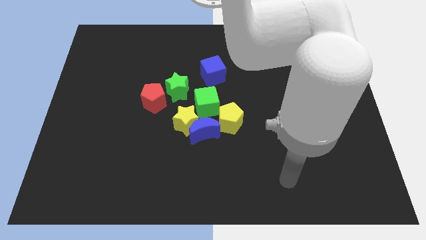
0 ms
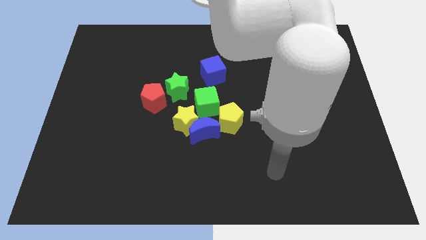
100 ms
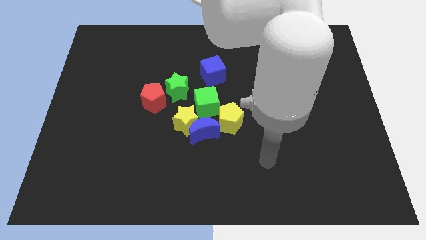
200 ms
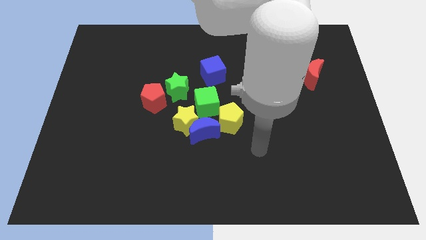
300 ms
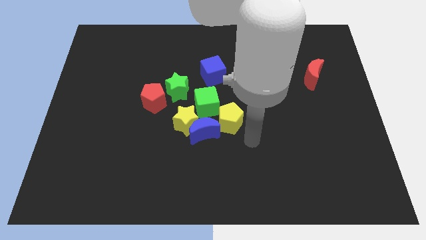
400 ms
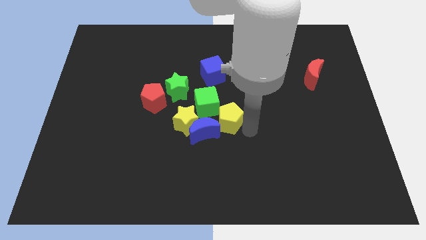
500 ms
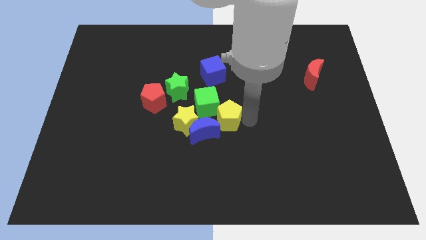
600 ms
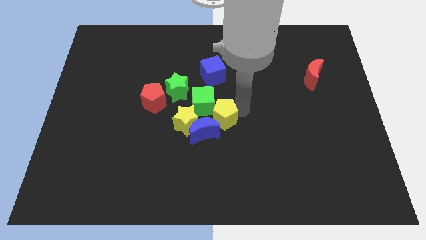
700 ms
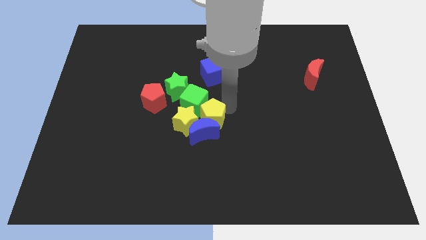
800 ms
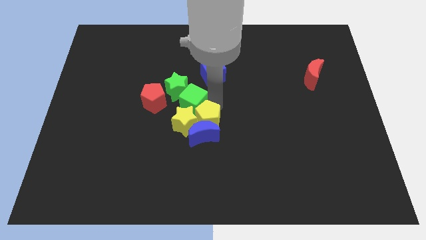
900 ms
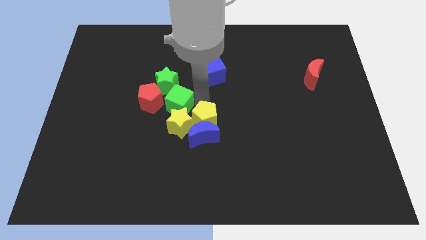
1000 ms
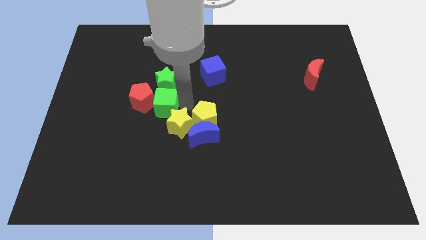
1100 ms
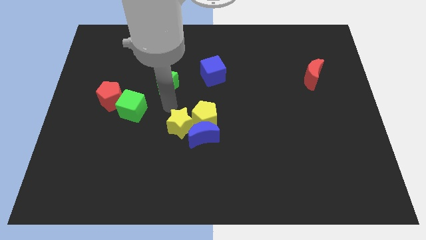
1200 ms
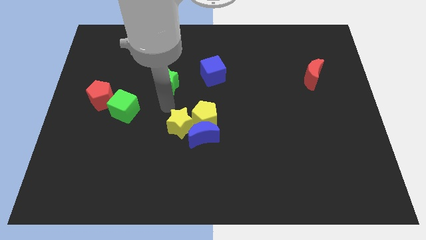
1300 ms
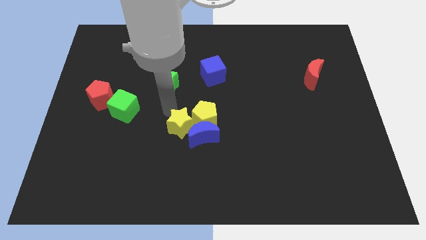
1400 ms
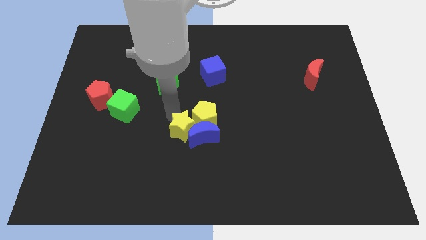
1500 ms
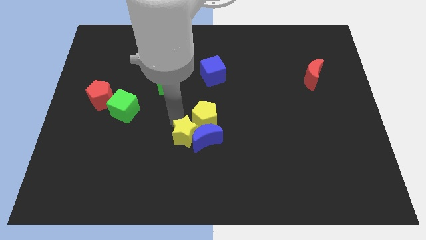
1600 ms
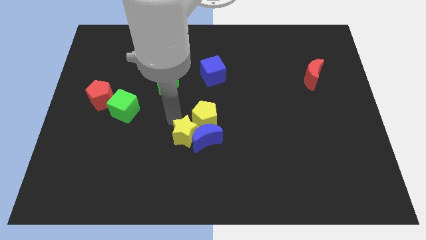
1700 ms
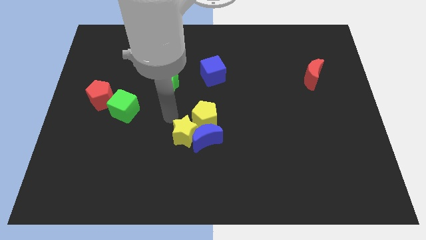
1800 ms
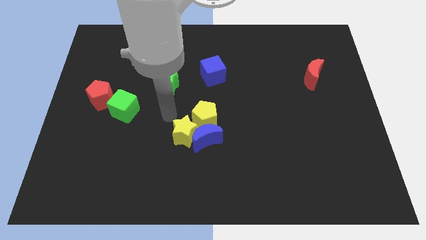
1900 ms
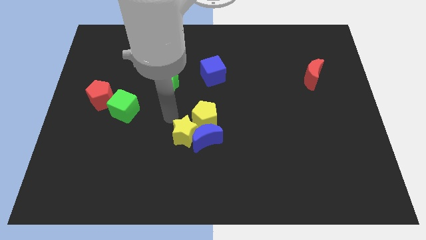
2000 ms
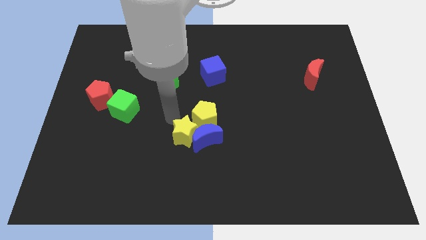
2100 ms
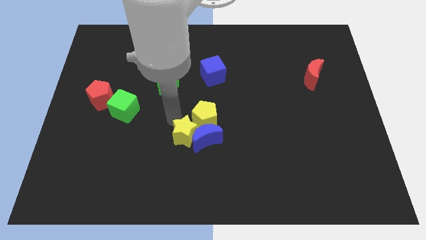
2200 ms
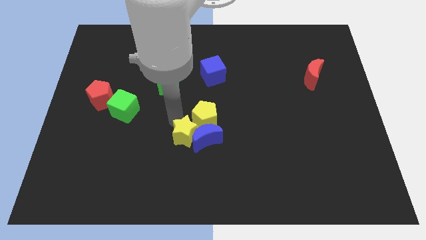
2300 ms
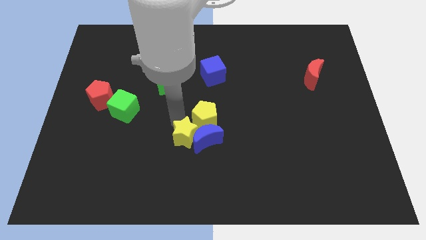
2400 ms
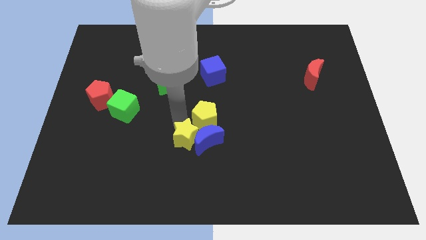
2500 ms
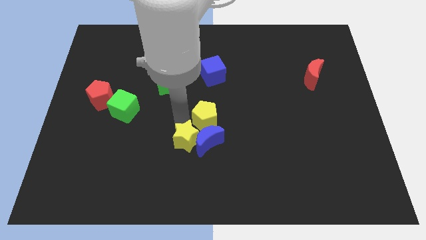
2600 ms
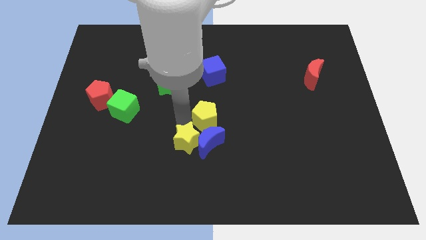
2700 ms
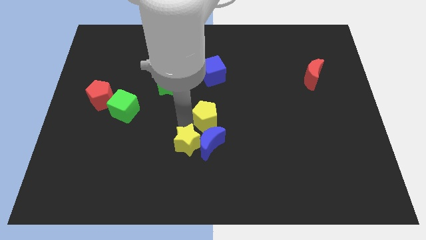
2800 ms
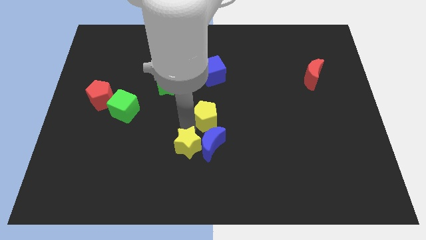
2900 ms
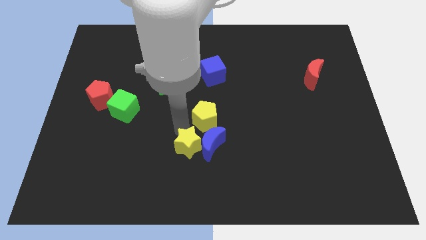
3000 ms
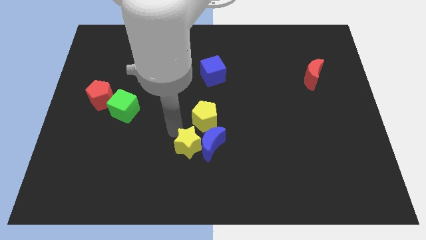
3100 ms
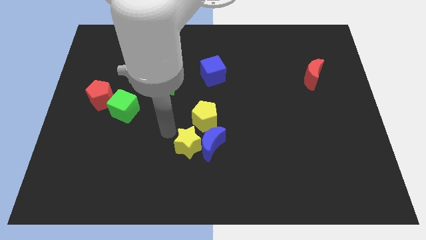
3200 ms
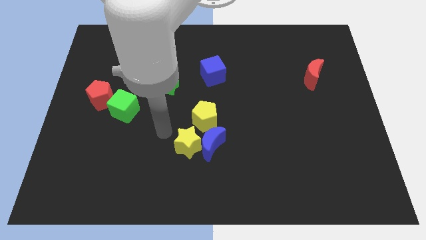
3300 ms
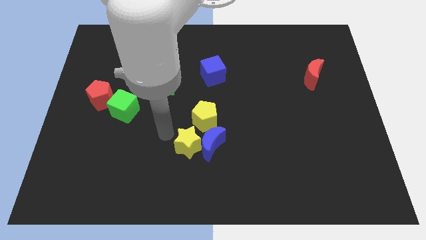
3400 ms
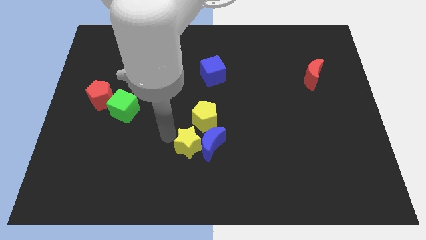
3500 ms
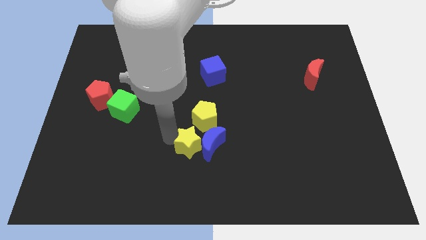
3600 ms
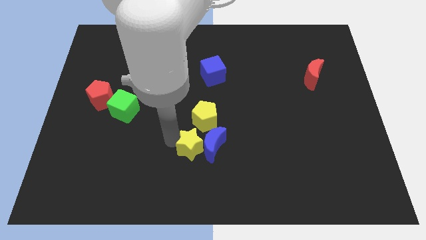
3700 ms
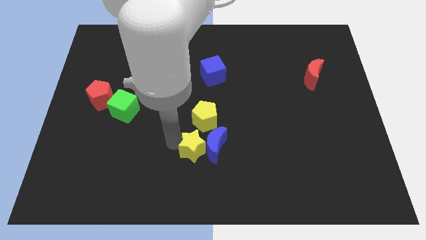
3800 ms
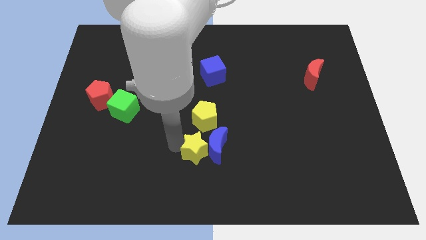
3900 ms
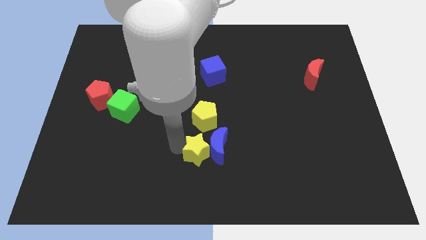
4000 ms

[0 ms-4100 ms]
slightly move the yellow star down and to the right

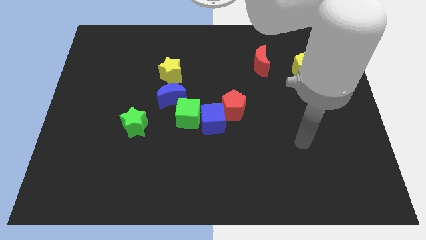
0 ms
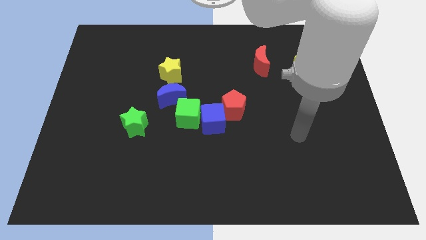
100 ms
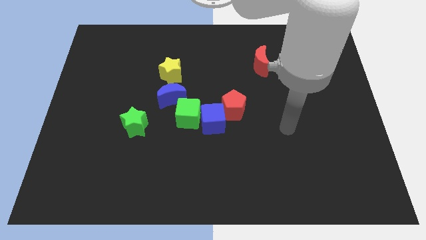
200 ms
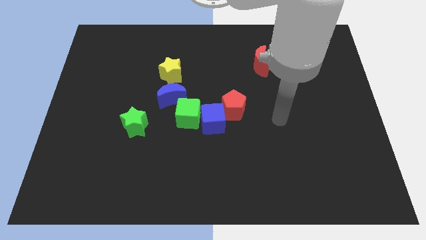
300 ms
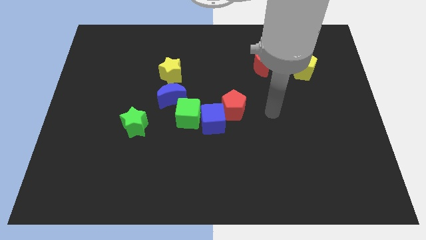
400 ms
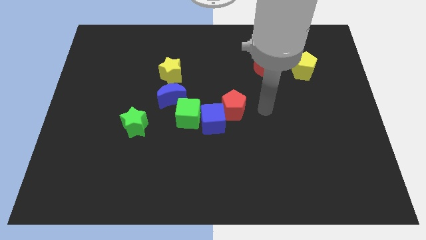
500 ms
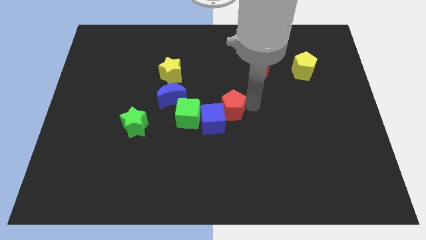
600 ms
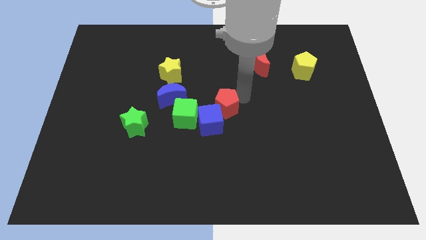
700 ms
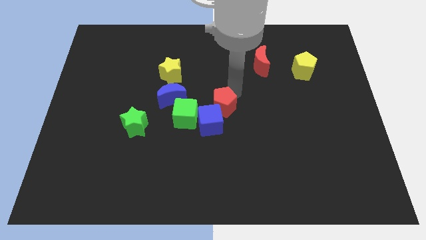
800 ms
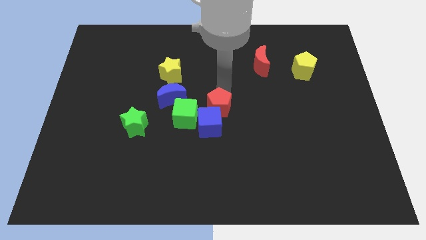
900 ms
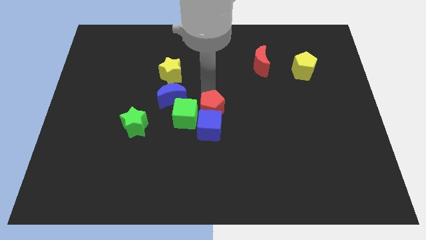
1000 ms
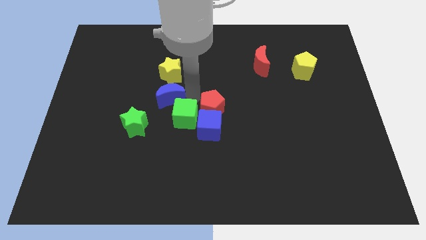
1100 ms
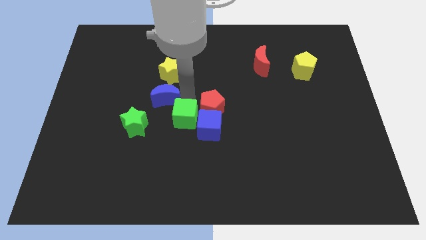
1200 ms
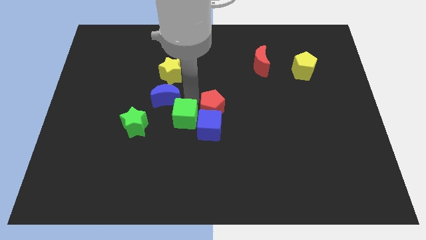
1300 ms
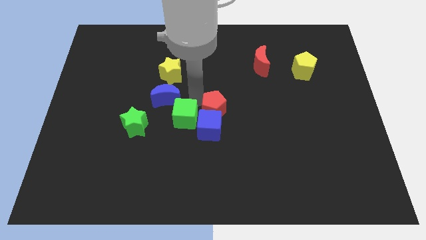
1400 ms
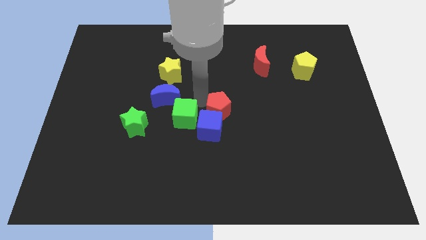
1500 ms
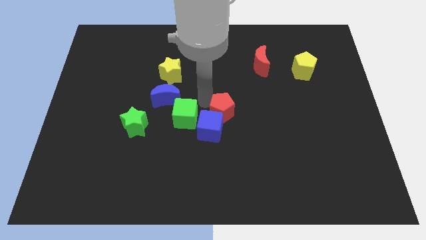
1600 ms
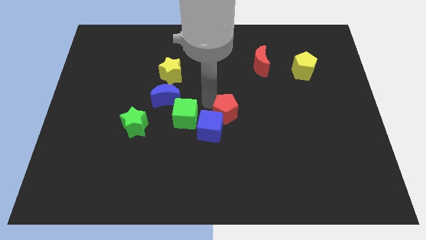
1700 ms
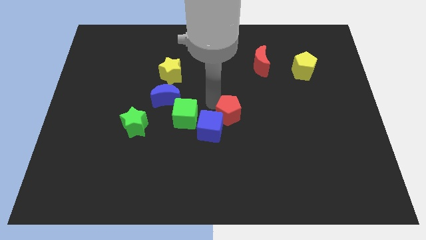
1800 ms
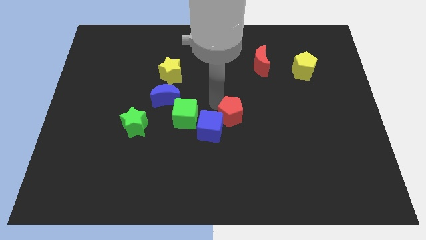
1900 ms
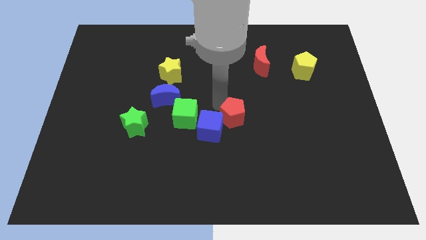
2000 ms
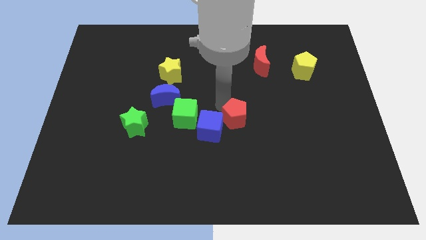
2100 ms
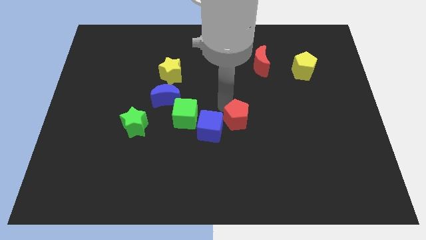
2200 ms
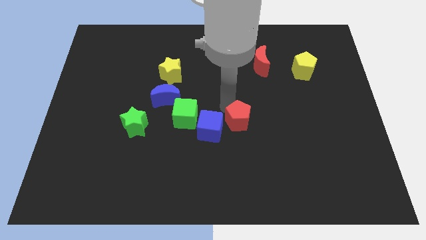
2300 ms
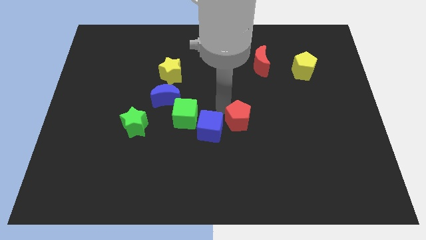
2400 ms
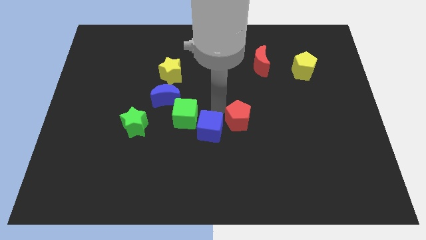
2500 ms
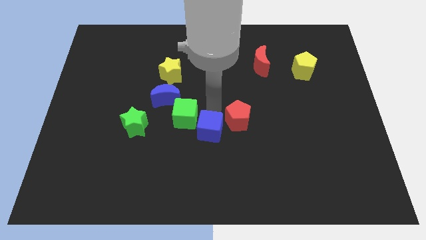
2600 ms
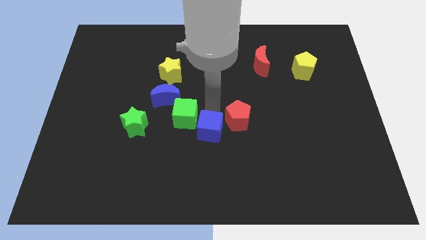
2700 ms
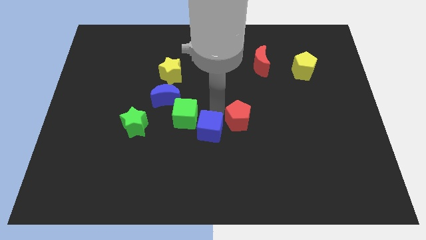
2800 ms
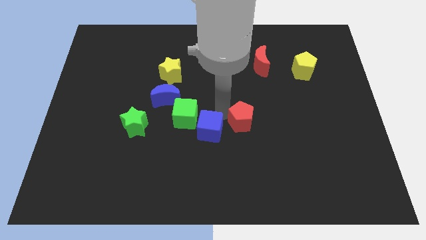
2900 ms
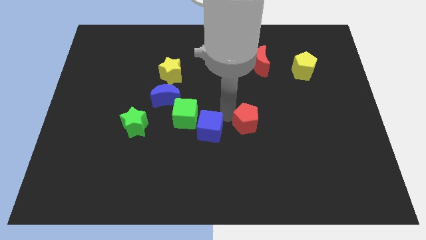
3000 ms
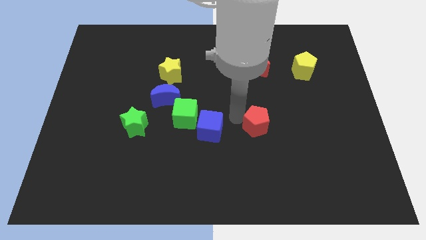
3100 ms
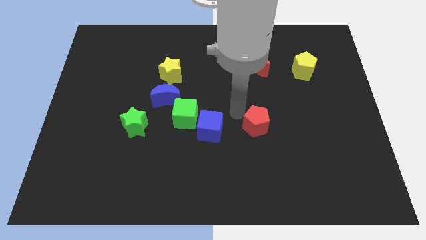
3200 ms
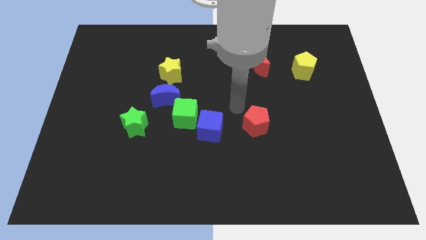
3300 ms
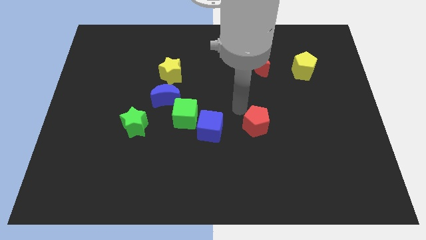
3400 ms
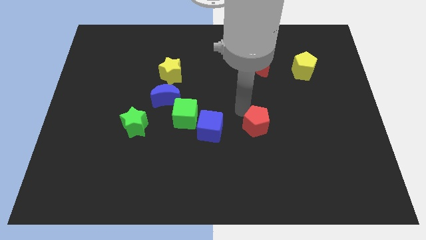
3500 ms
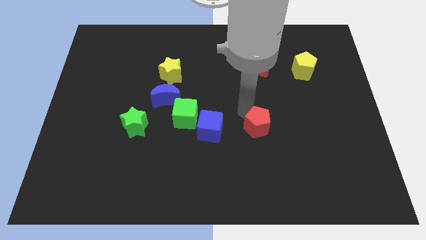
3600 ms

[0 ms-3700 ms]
slightly move the red pentagon diagonally downwards and right

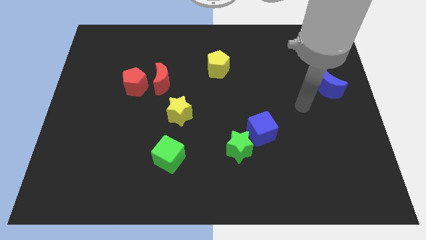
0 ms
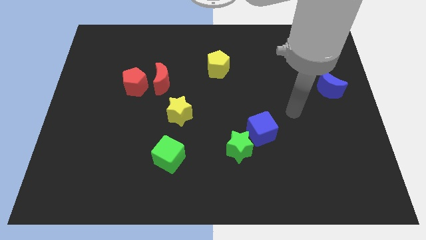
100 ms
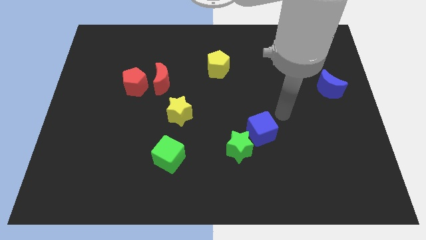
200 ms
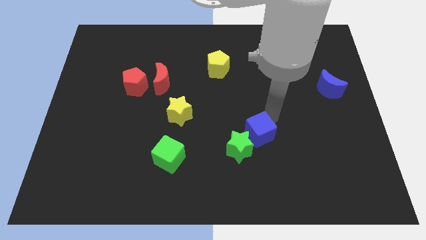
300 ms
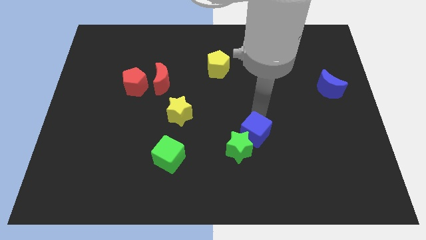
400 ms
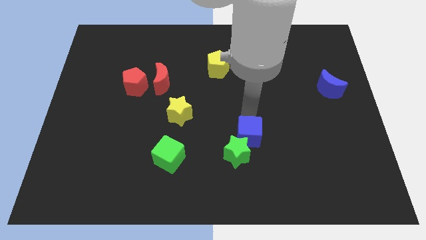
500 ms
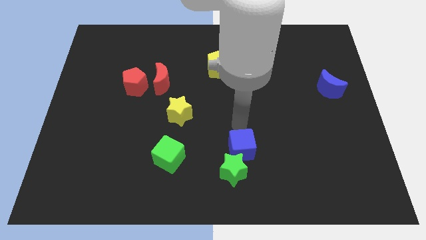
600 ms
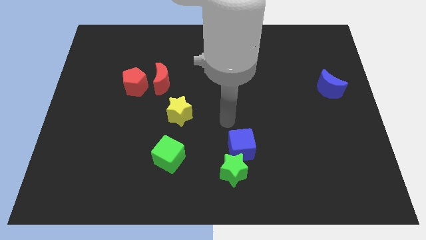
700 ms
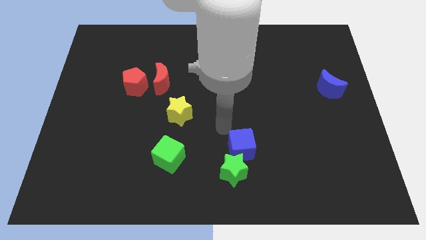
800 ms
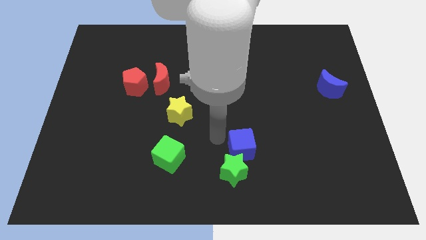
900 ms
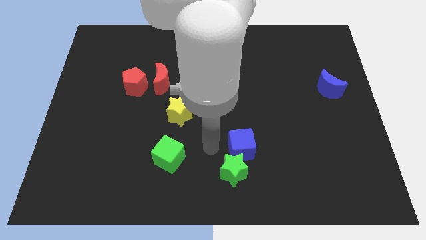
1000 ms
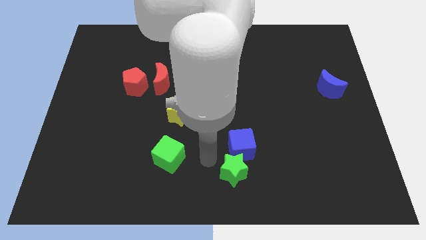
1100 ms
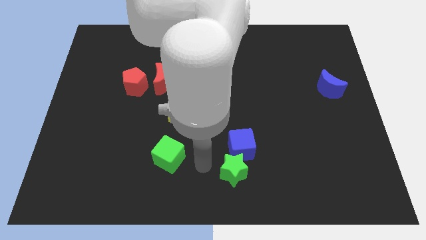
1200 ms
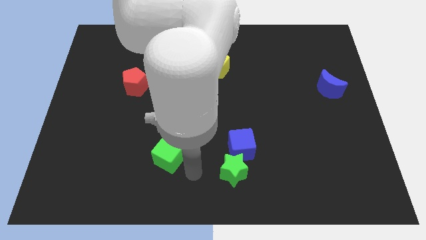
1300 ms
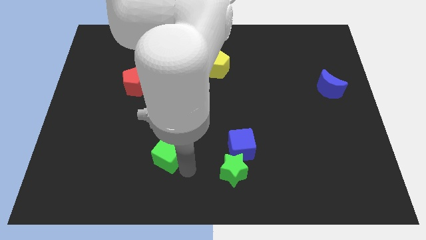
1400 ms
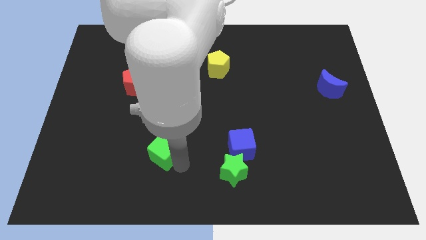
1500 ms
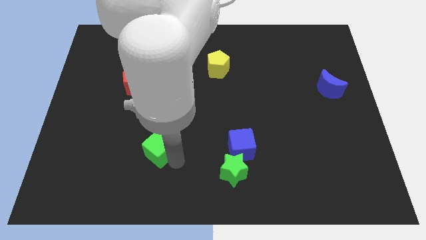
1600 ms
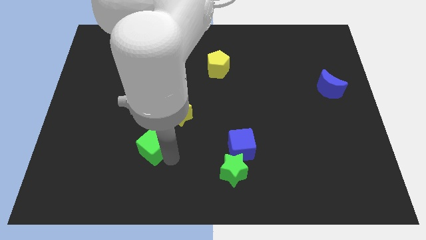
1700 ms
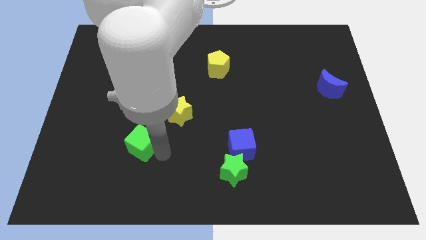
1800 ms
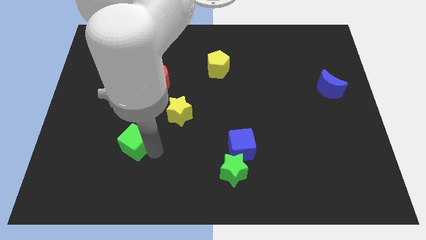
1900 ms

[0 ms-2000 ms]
slightly slide the green cube up and to the left diagonally
